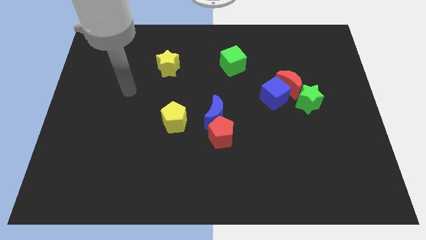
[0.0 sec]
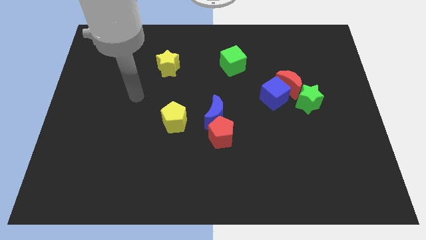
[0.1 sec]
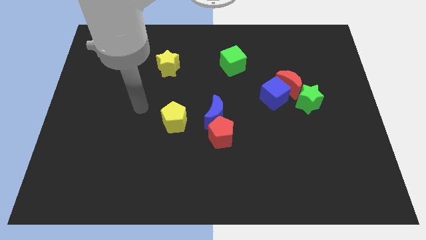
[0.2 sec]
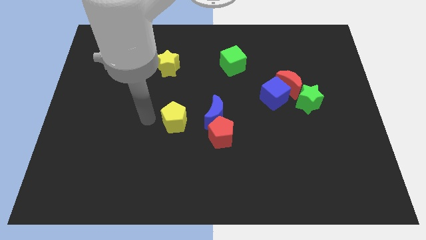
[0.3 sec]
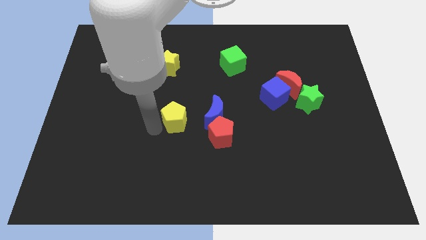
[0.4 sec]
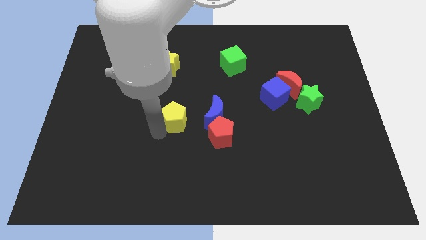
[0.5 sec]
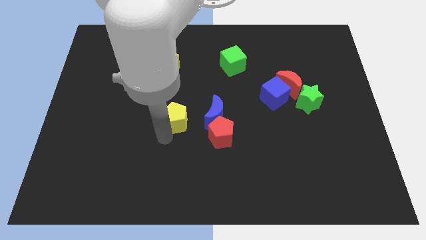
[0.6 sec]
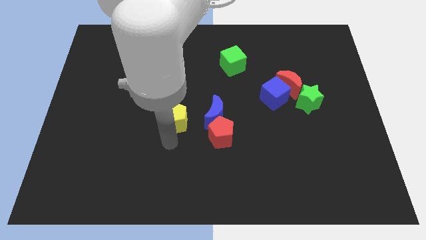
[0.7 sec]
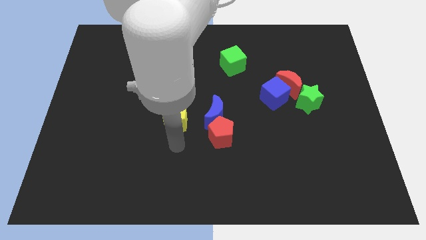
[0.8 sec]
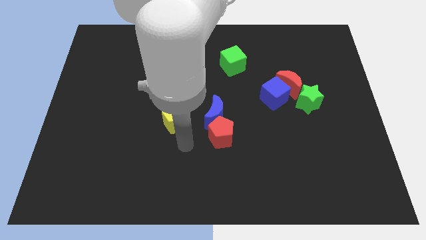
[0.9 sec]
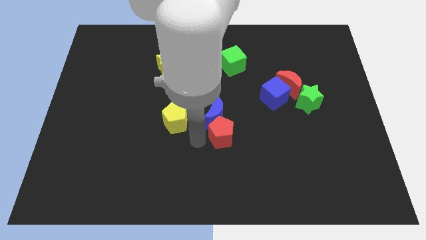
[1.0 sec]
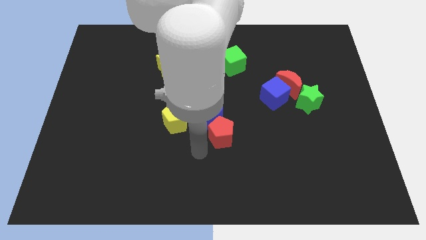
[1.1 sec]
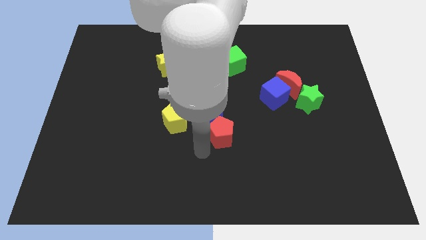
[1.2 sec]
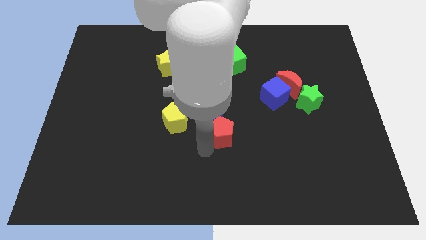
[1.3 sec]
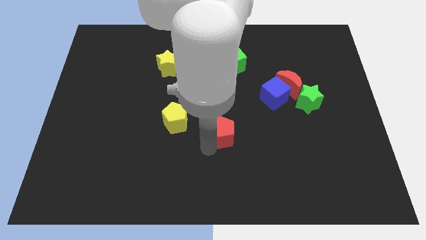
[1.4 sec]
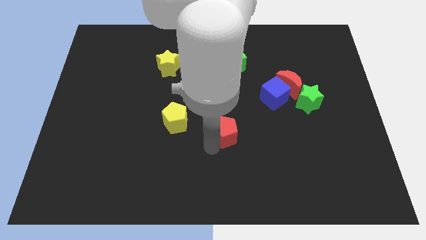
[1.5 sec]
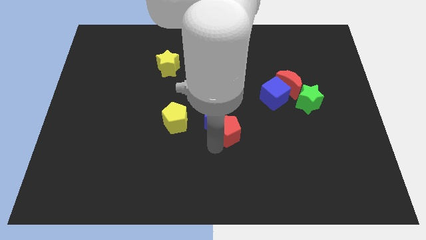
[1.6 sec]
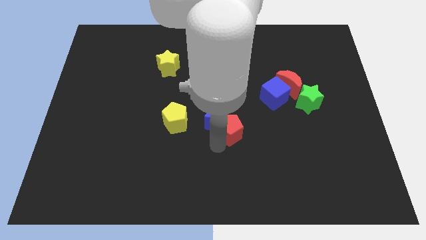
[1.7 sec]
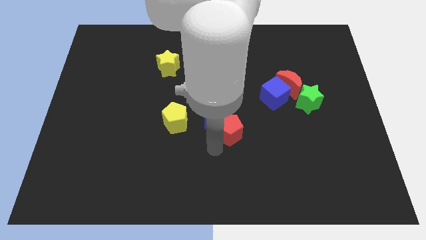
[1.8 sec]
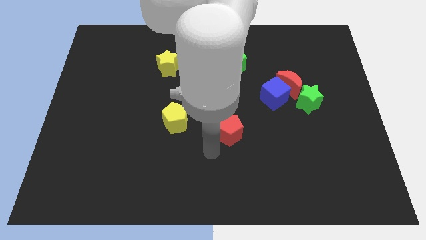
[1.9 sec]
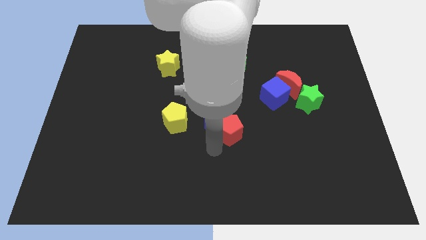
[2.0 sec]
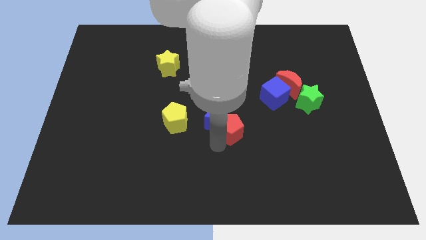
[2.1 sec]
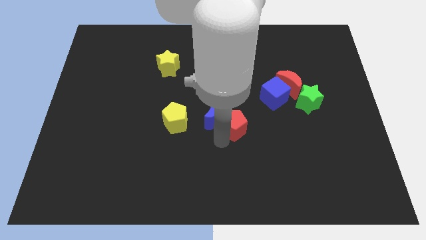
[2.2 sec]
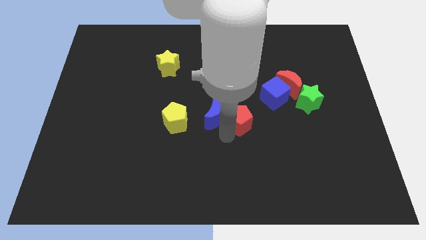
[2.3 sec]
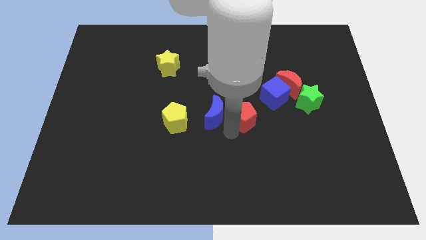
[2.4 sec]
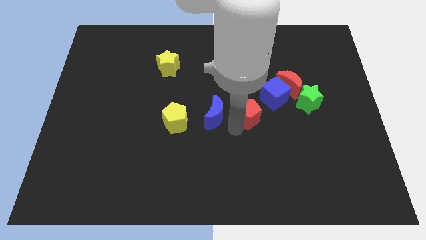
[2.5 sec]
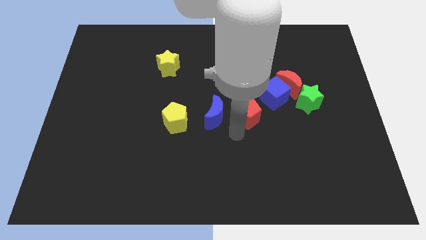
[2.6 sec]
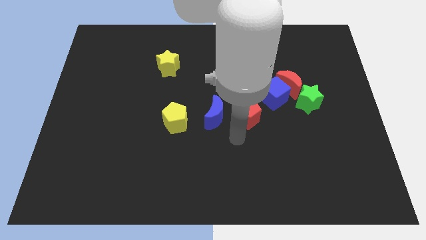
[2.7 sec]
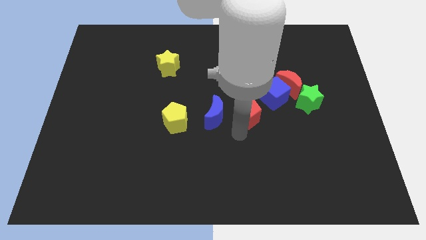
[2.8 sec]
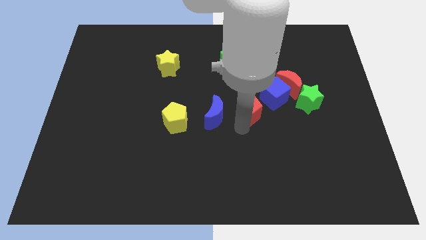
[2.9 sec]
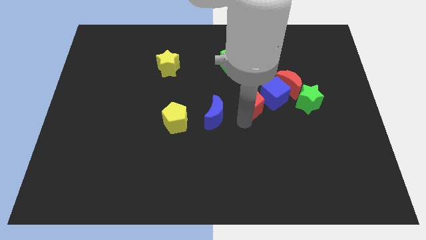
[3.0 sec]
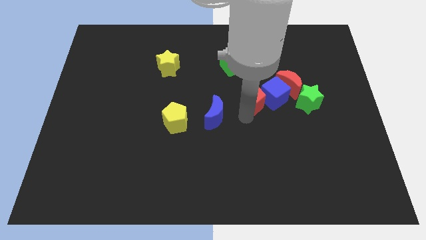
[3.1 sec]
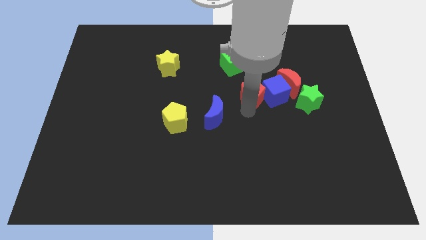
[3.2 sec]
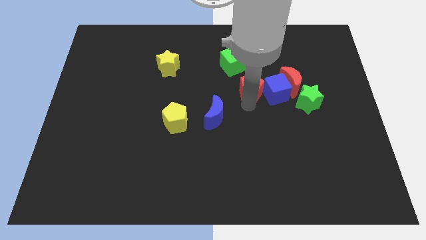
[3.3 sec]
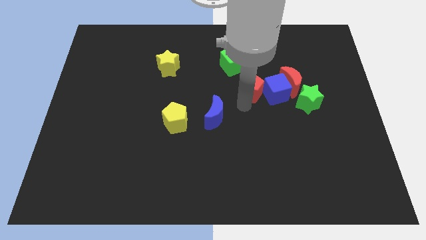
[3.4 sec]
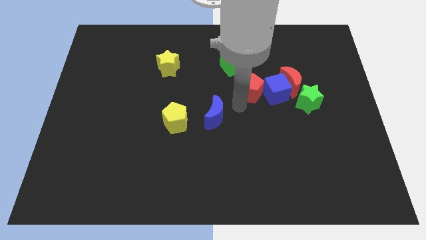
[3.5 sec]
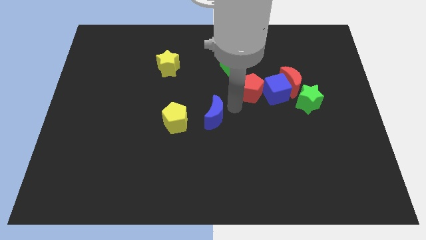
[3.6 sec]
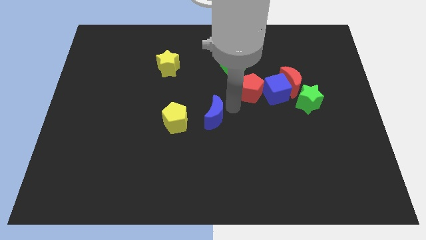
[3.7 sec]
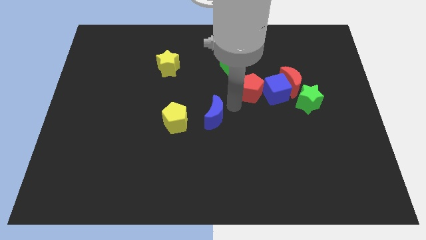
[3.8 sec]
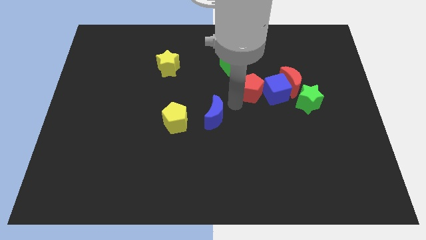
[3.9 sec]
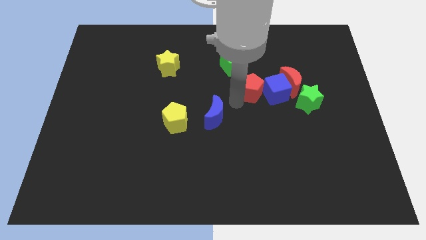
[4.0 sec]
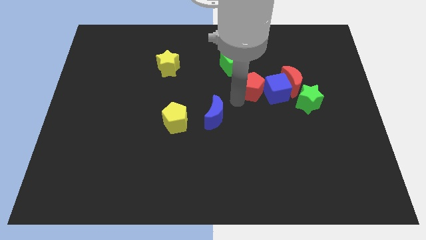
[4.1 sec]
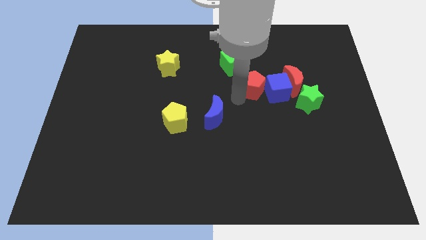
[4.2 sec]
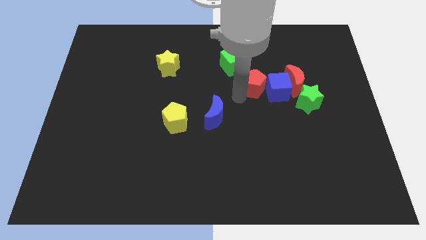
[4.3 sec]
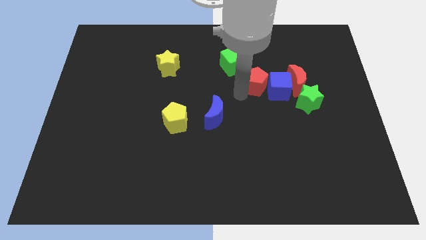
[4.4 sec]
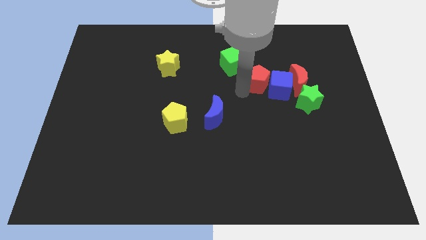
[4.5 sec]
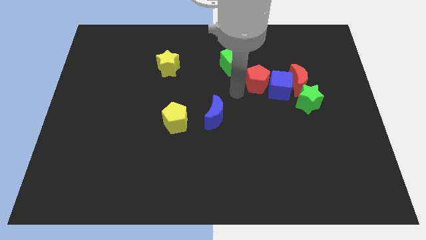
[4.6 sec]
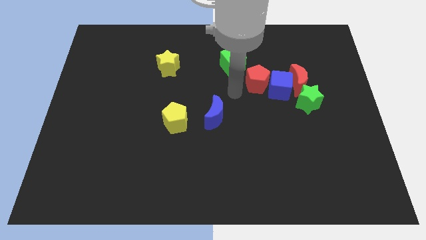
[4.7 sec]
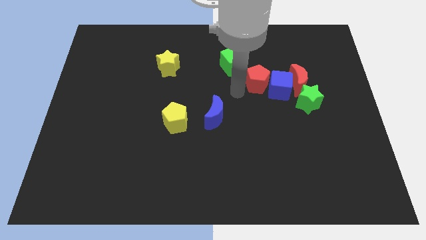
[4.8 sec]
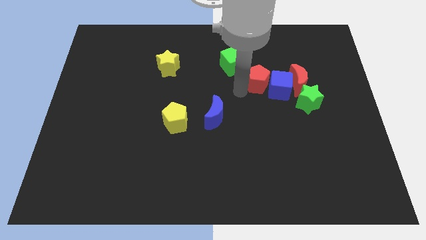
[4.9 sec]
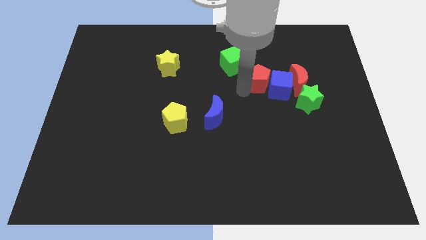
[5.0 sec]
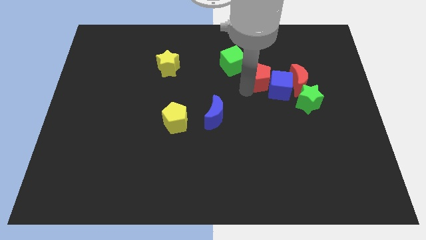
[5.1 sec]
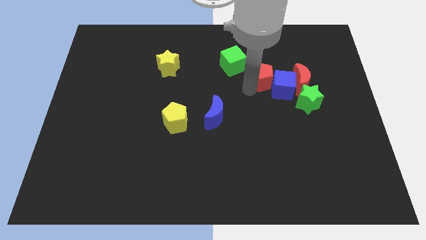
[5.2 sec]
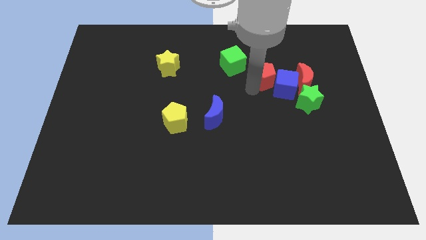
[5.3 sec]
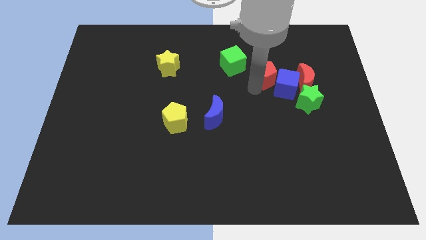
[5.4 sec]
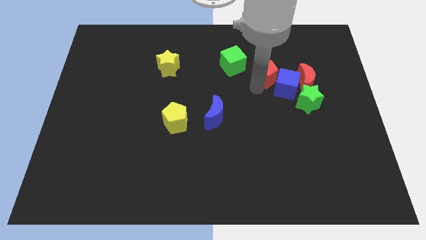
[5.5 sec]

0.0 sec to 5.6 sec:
move the red pentagon upwards and then right

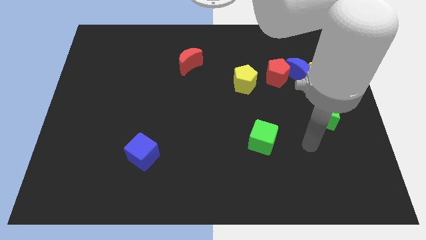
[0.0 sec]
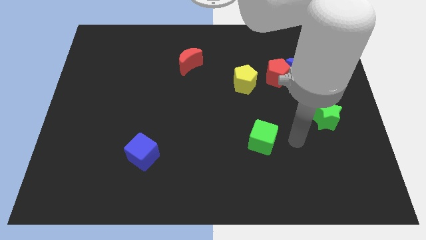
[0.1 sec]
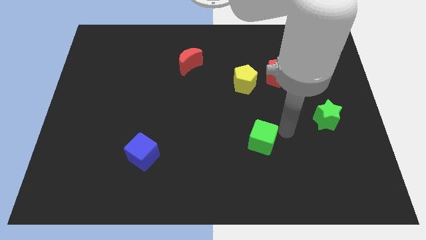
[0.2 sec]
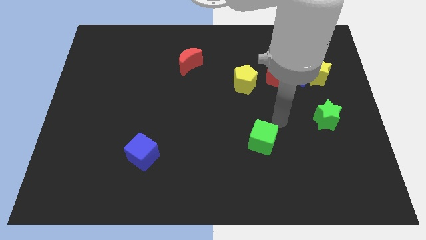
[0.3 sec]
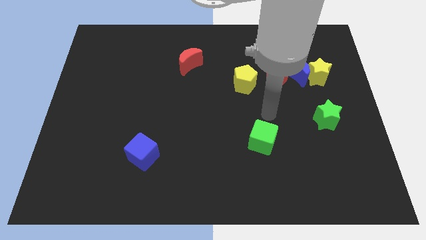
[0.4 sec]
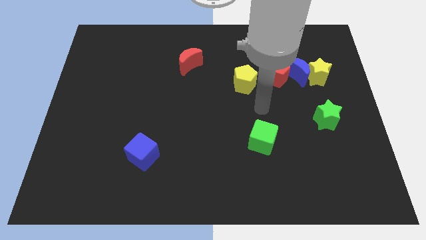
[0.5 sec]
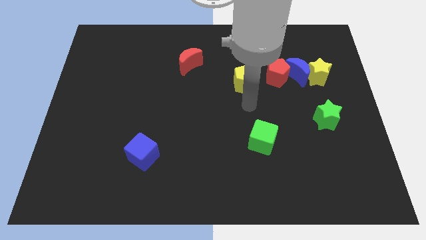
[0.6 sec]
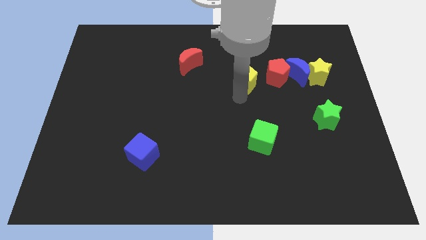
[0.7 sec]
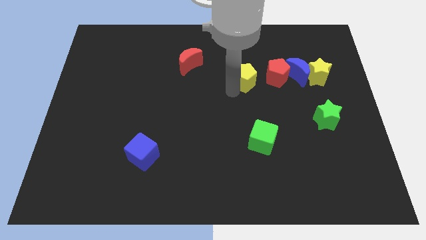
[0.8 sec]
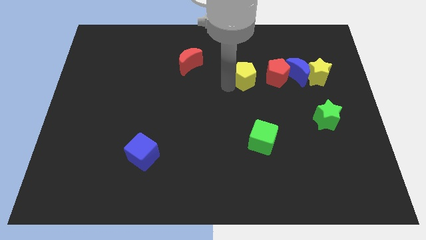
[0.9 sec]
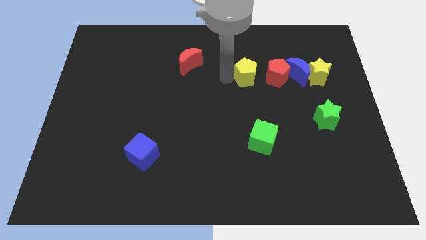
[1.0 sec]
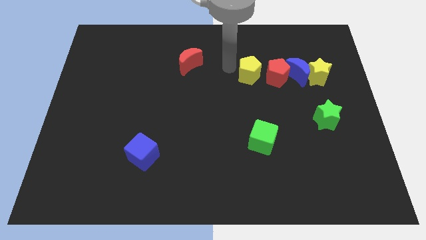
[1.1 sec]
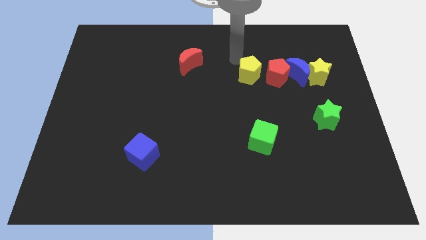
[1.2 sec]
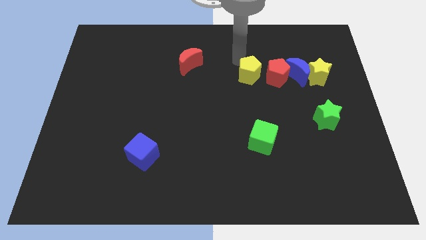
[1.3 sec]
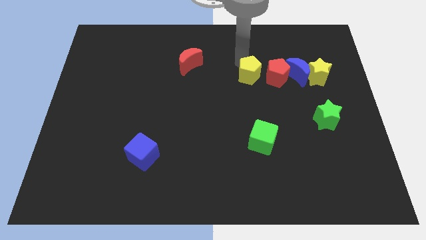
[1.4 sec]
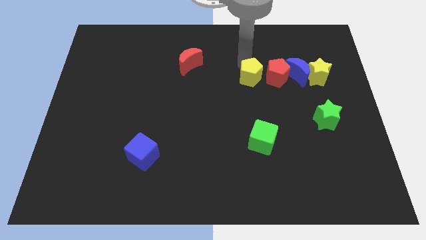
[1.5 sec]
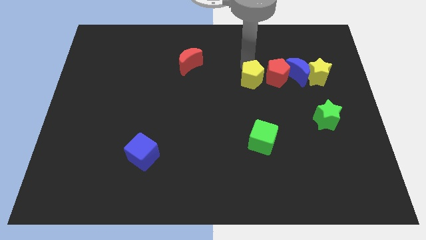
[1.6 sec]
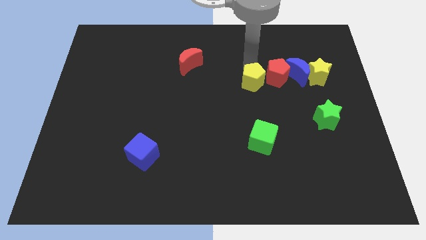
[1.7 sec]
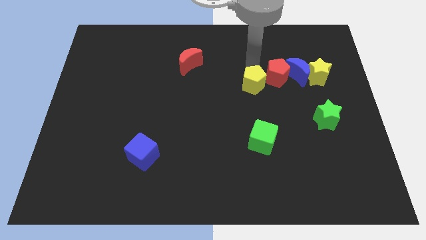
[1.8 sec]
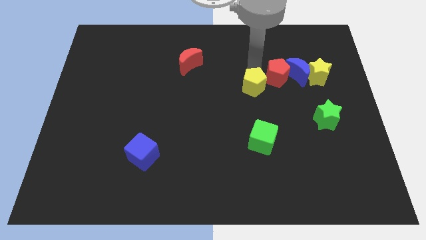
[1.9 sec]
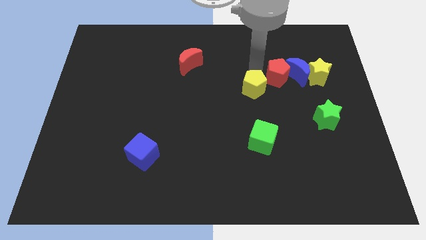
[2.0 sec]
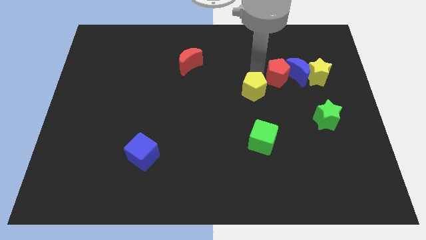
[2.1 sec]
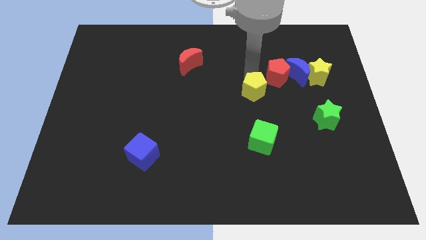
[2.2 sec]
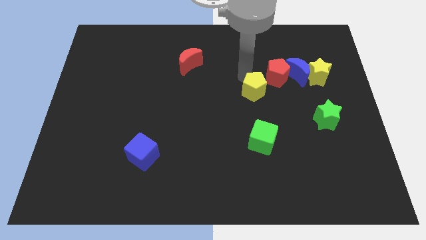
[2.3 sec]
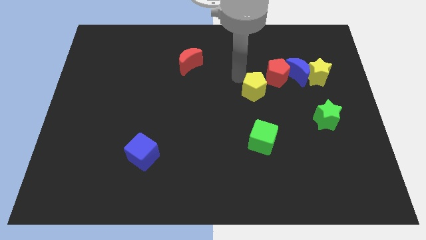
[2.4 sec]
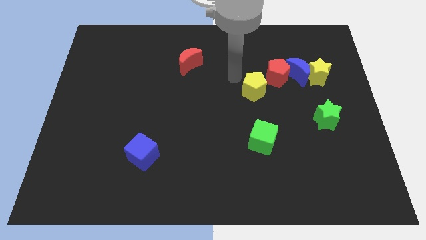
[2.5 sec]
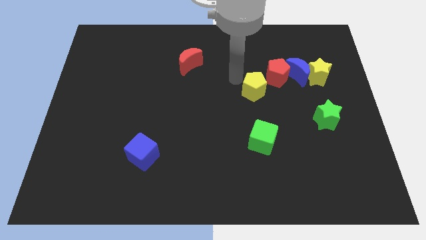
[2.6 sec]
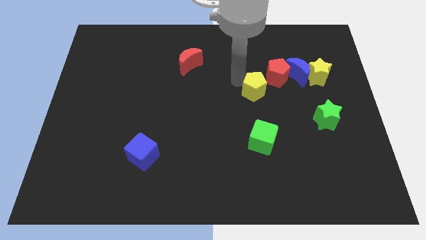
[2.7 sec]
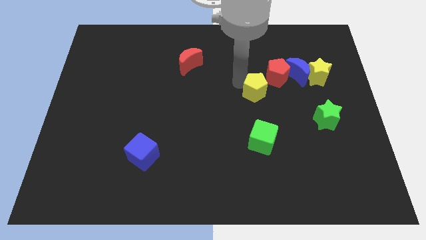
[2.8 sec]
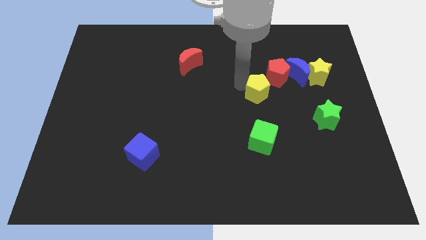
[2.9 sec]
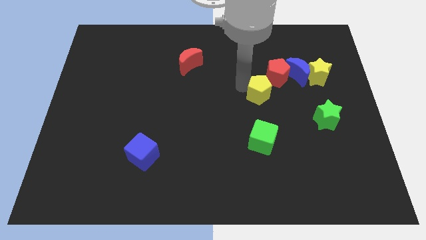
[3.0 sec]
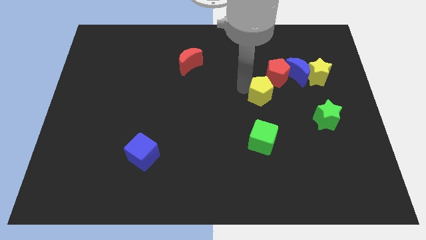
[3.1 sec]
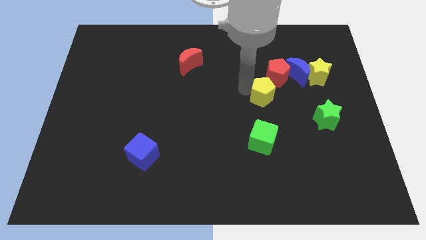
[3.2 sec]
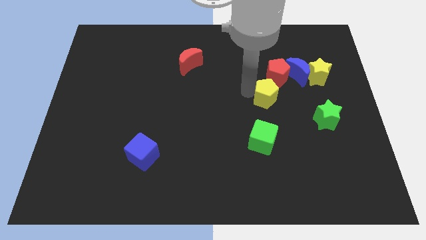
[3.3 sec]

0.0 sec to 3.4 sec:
slightly slide the yellow pentagon down and to the right
